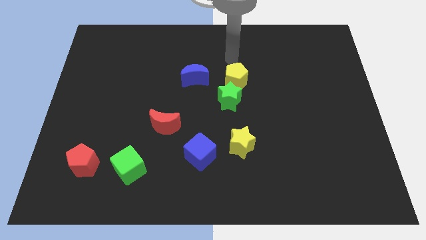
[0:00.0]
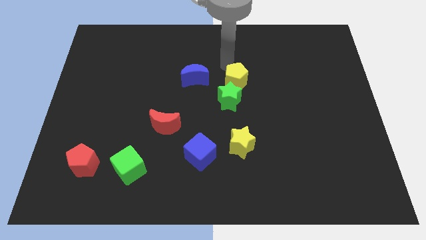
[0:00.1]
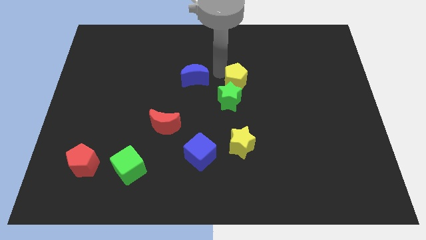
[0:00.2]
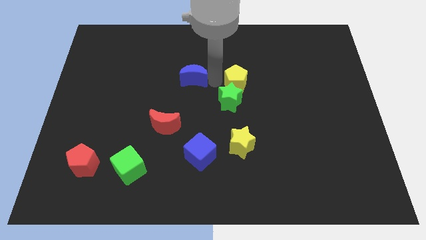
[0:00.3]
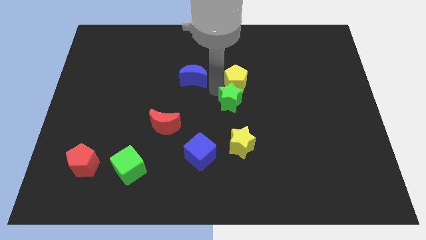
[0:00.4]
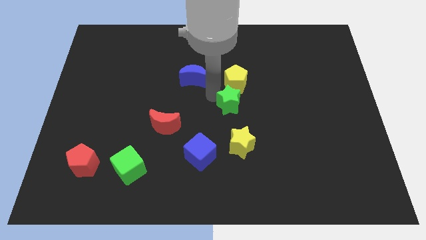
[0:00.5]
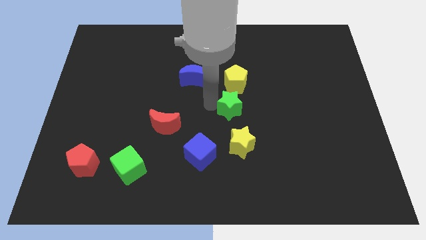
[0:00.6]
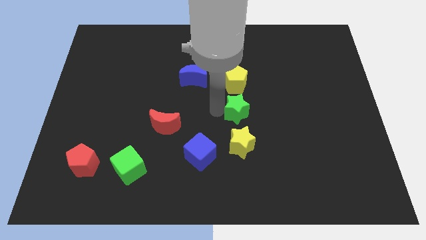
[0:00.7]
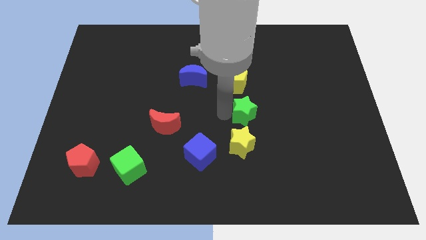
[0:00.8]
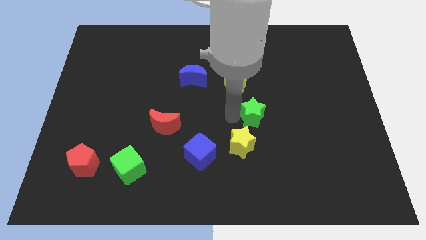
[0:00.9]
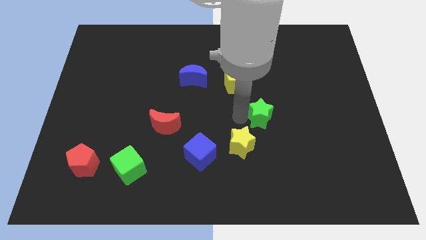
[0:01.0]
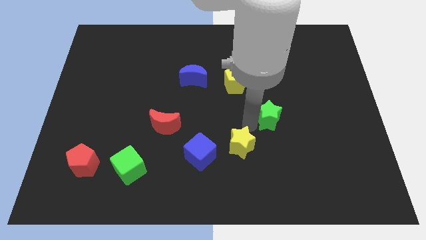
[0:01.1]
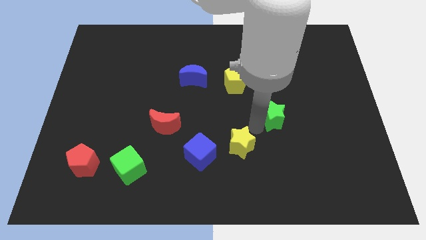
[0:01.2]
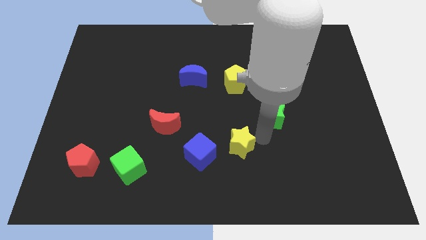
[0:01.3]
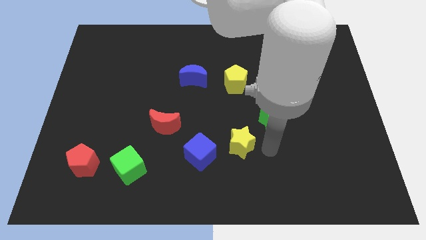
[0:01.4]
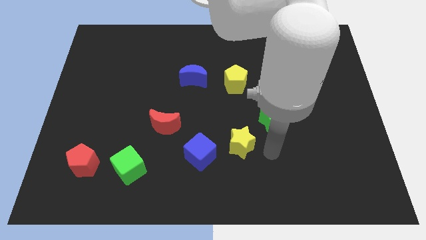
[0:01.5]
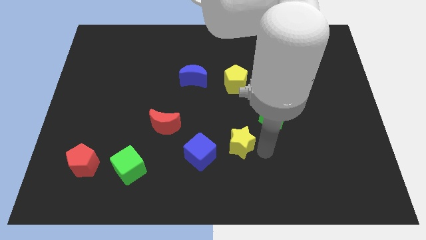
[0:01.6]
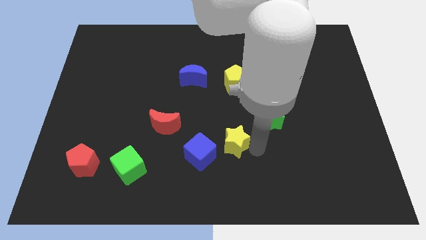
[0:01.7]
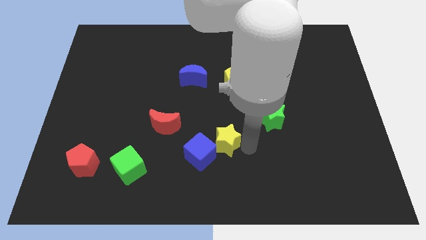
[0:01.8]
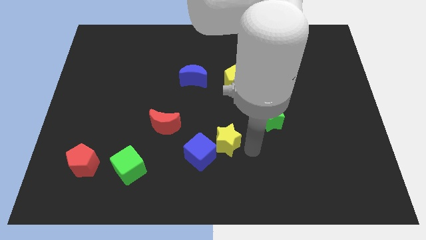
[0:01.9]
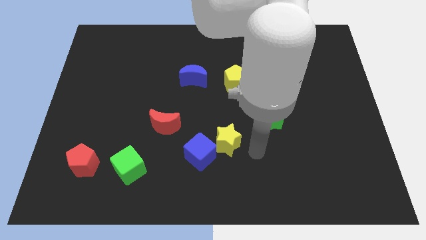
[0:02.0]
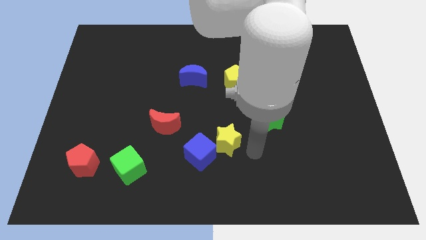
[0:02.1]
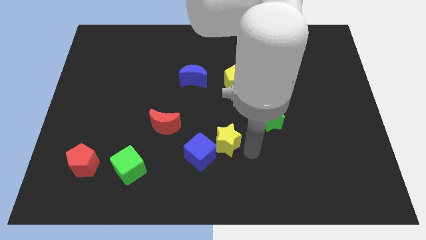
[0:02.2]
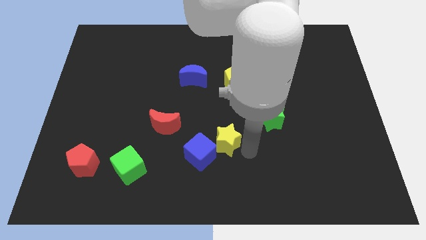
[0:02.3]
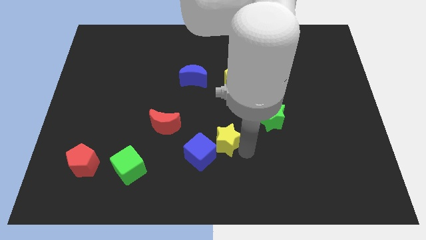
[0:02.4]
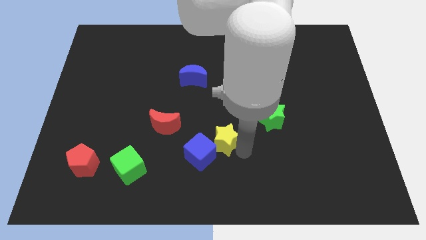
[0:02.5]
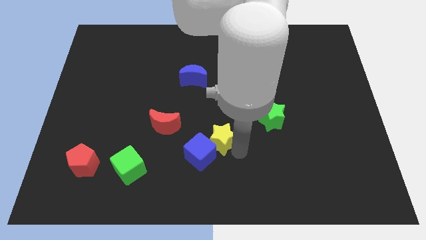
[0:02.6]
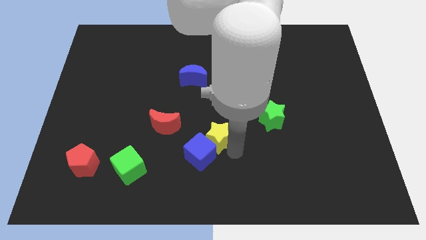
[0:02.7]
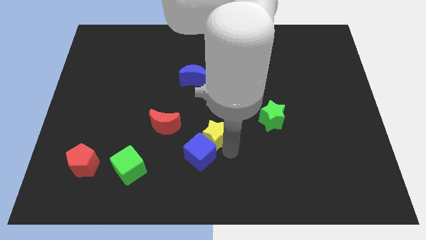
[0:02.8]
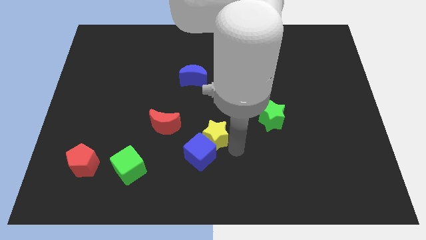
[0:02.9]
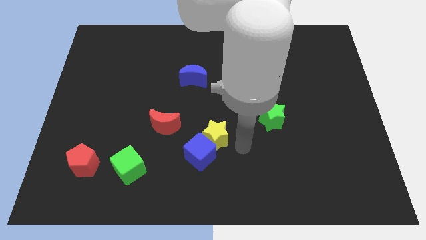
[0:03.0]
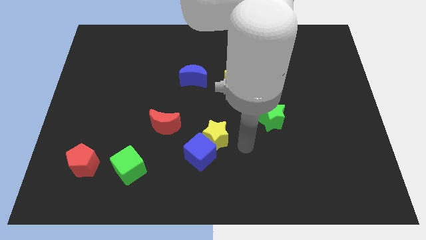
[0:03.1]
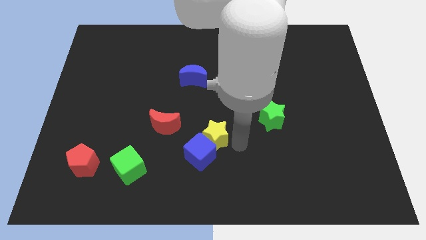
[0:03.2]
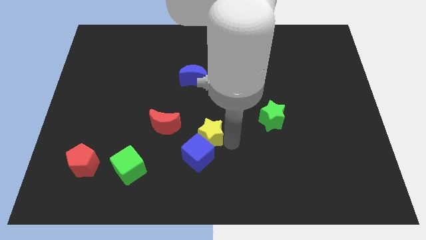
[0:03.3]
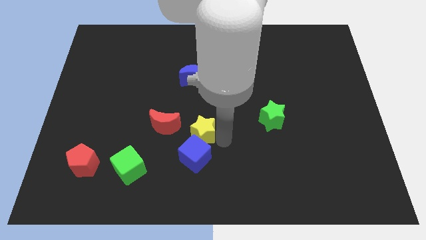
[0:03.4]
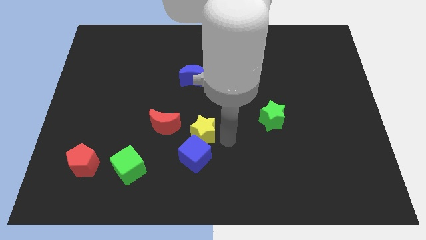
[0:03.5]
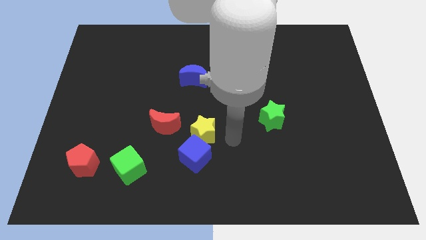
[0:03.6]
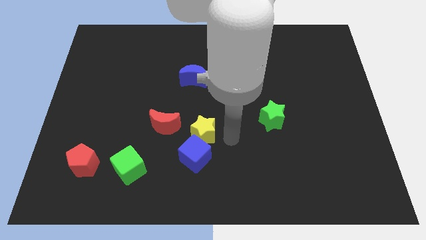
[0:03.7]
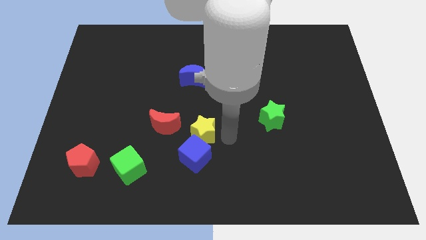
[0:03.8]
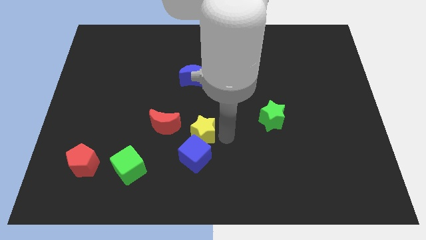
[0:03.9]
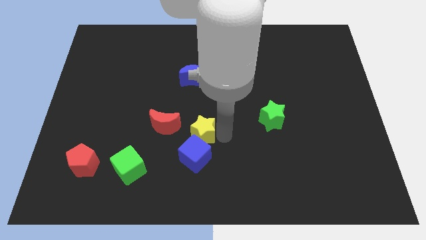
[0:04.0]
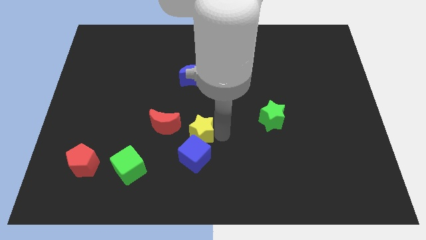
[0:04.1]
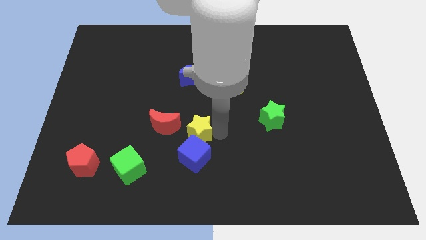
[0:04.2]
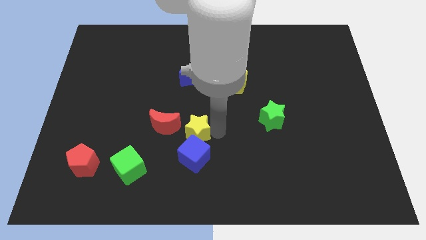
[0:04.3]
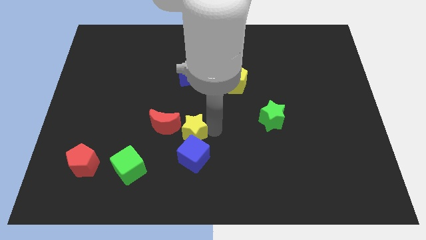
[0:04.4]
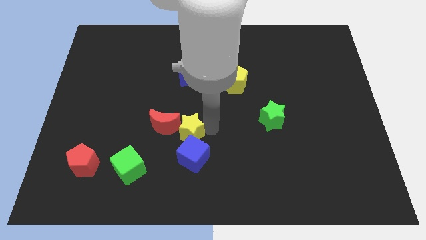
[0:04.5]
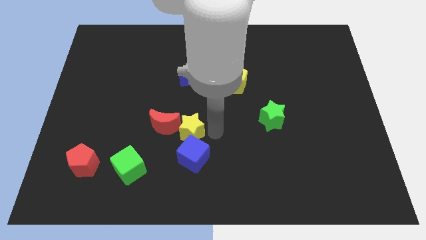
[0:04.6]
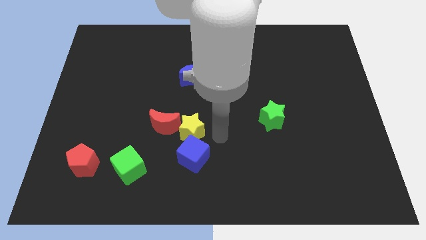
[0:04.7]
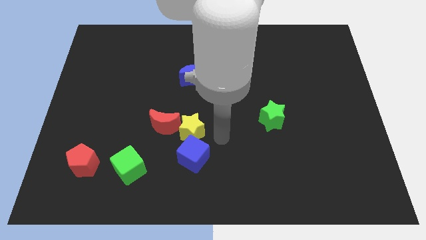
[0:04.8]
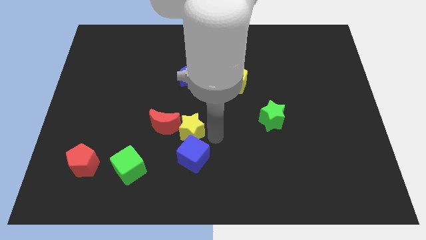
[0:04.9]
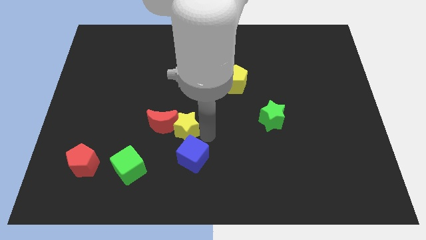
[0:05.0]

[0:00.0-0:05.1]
move the yellow star next to the red moon

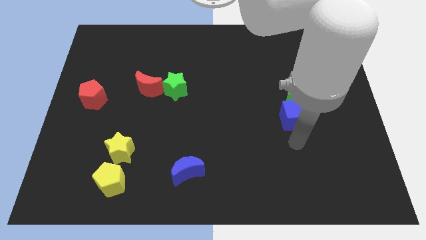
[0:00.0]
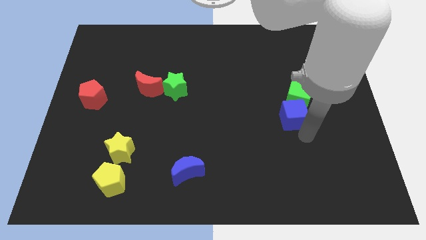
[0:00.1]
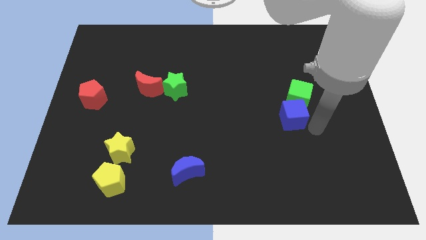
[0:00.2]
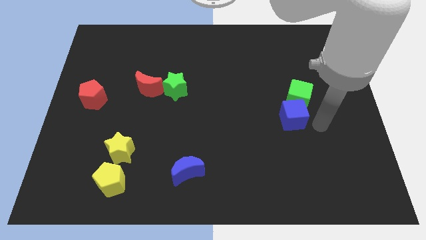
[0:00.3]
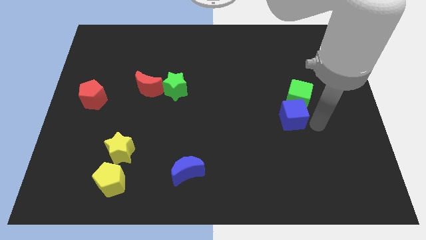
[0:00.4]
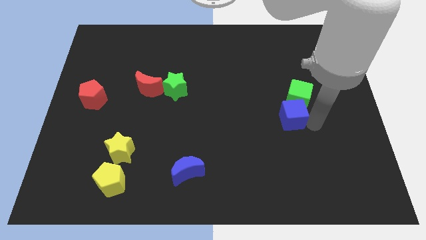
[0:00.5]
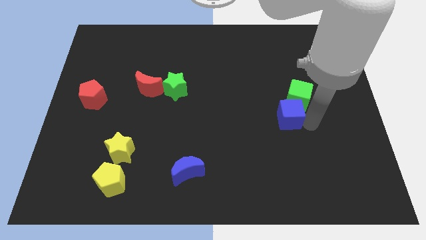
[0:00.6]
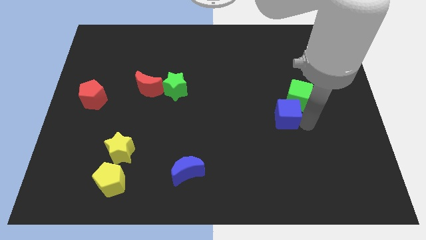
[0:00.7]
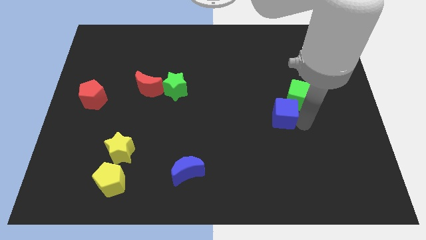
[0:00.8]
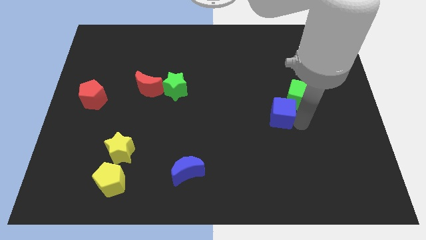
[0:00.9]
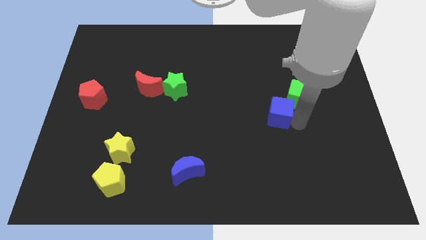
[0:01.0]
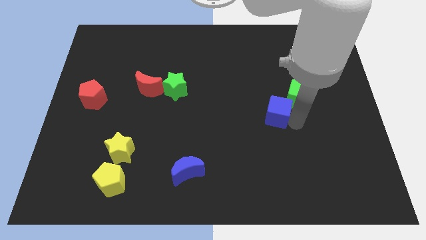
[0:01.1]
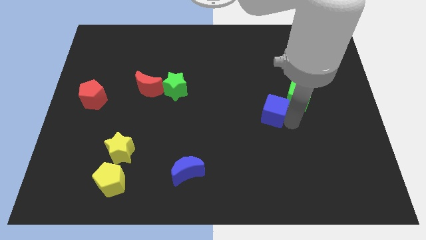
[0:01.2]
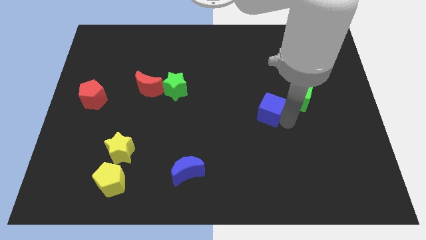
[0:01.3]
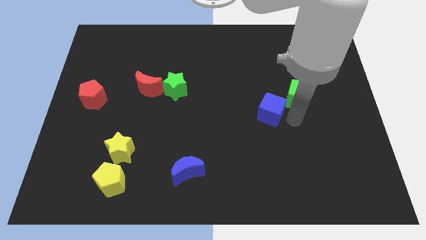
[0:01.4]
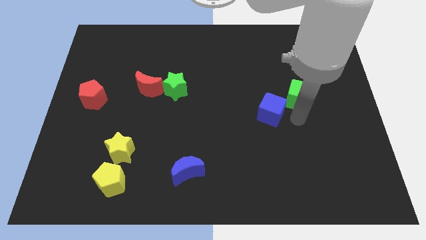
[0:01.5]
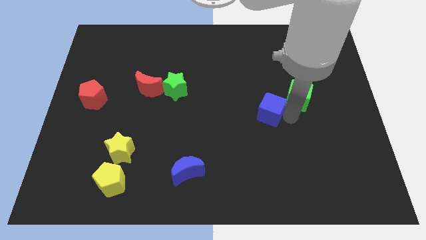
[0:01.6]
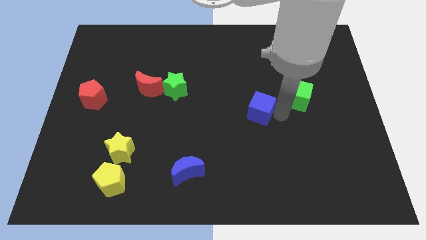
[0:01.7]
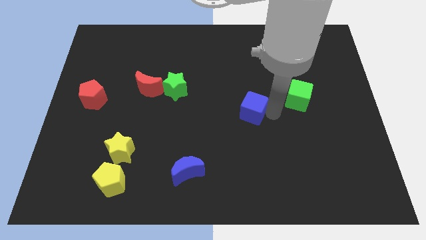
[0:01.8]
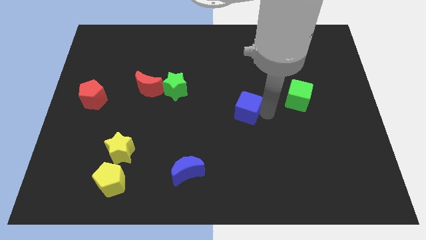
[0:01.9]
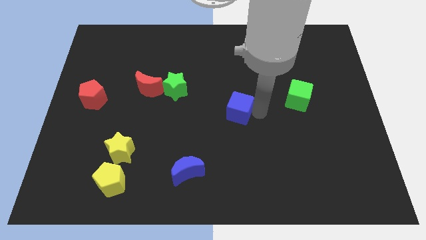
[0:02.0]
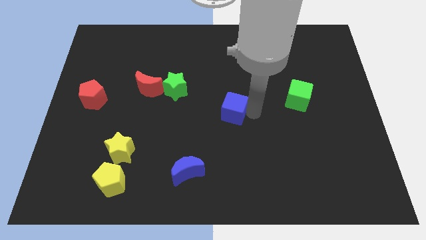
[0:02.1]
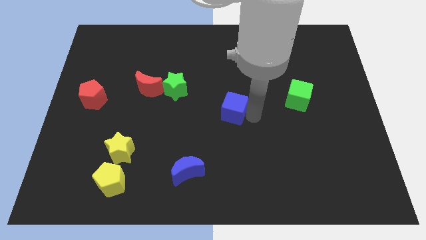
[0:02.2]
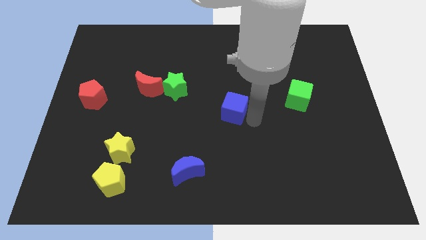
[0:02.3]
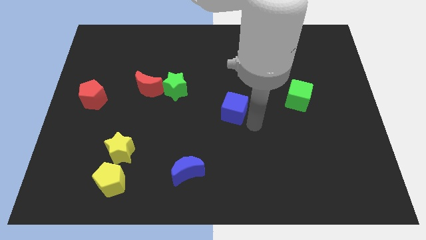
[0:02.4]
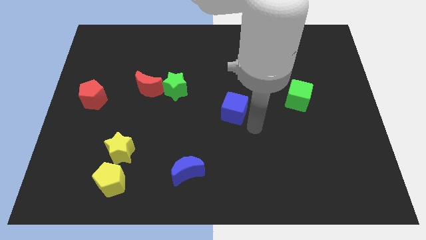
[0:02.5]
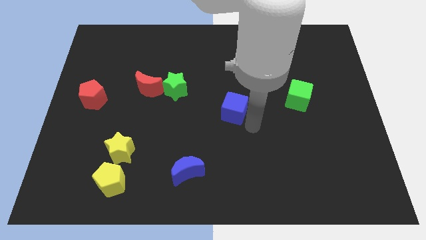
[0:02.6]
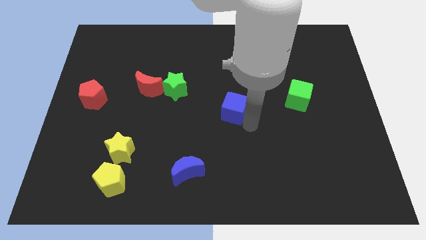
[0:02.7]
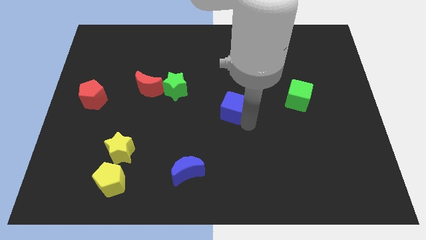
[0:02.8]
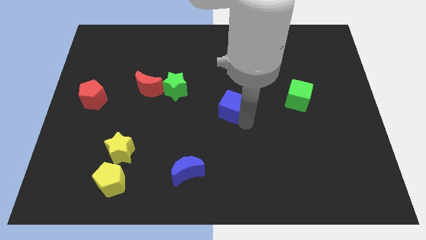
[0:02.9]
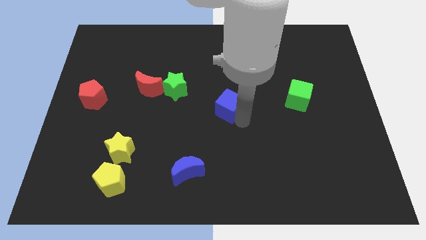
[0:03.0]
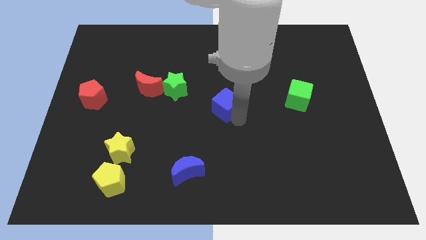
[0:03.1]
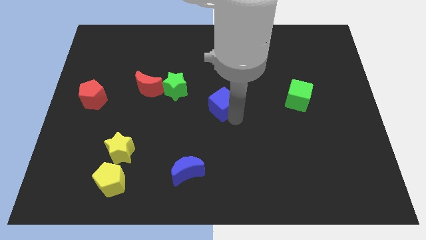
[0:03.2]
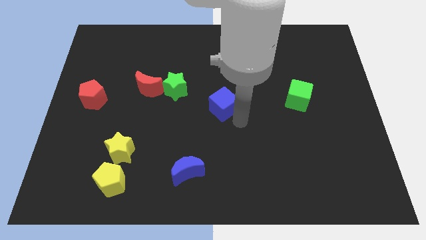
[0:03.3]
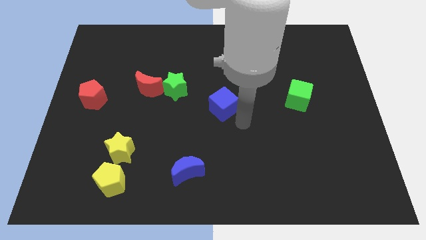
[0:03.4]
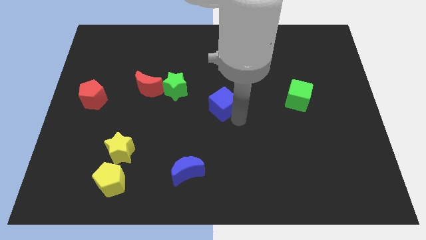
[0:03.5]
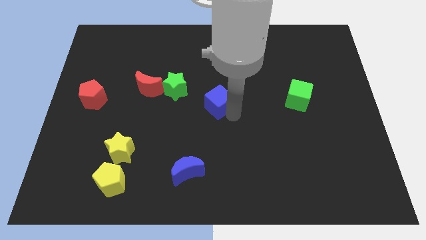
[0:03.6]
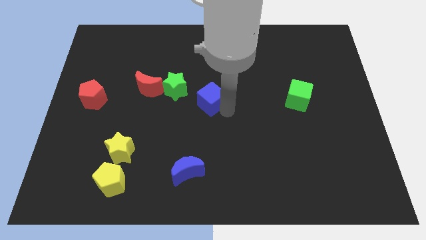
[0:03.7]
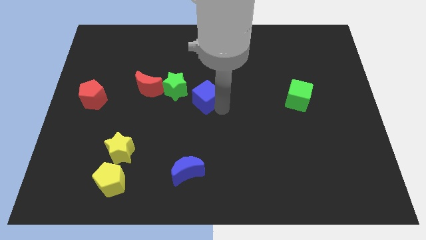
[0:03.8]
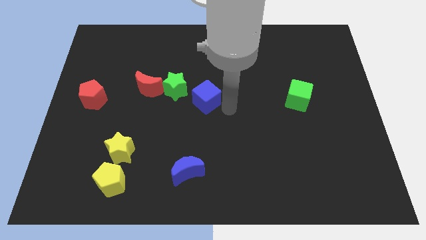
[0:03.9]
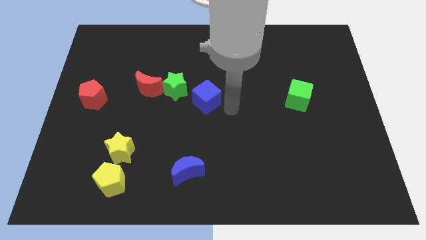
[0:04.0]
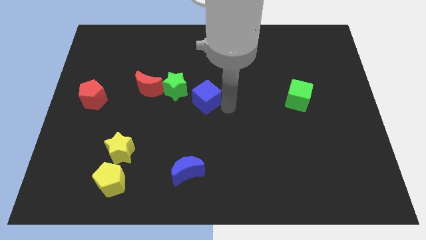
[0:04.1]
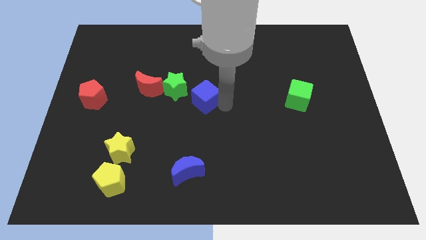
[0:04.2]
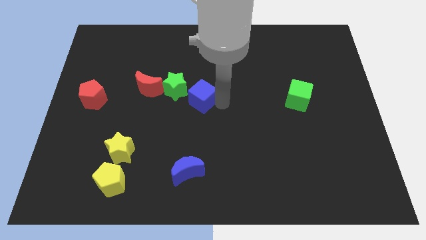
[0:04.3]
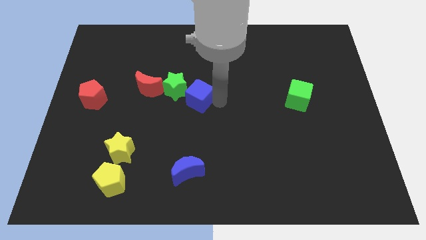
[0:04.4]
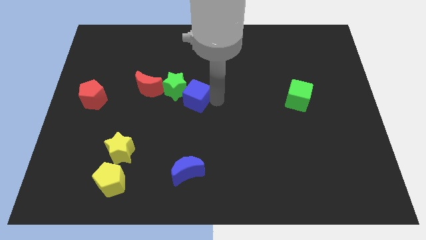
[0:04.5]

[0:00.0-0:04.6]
move the blue cube close to the green star
